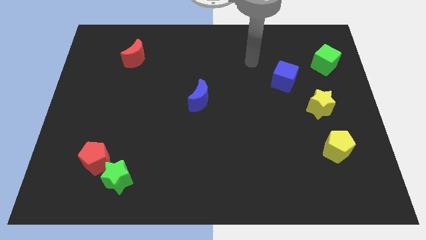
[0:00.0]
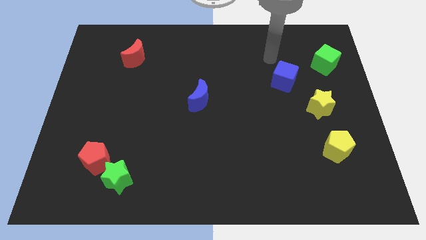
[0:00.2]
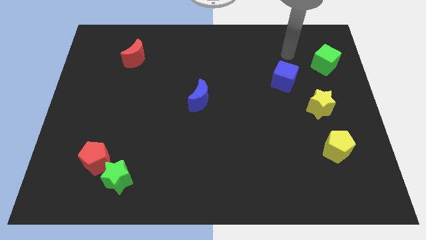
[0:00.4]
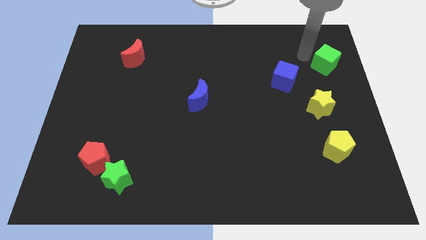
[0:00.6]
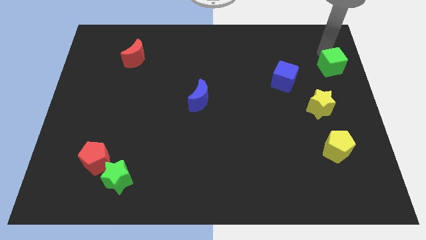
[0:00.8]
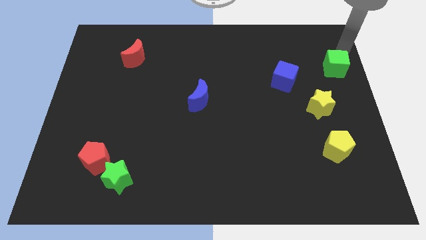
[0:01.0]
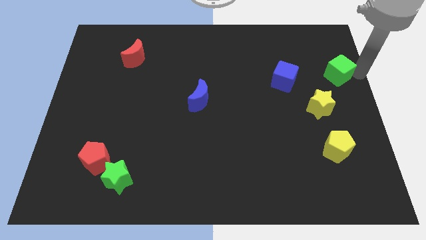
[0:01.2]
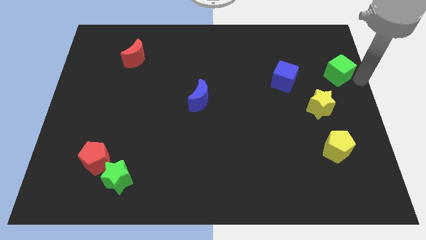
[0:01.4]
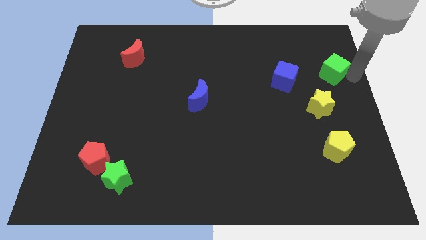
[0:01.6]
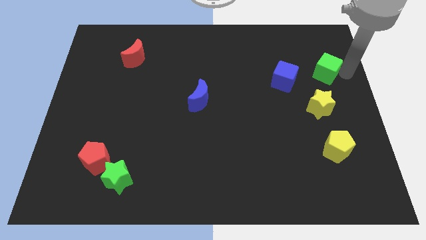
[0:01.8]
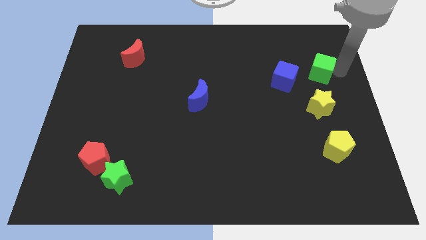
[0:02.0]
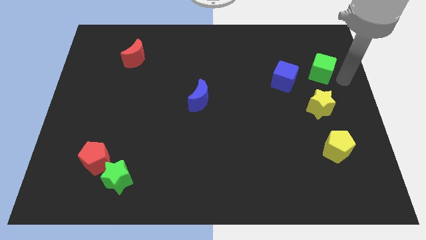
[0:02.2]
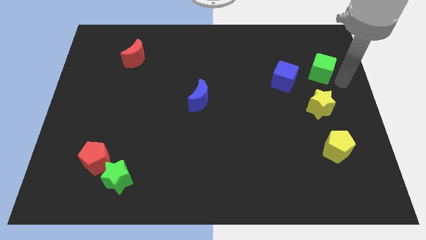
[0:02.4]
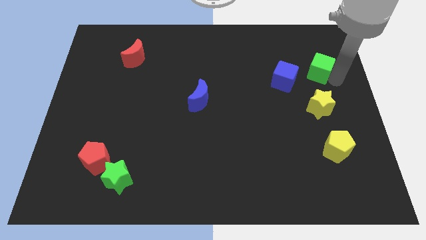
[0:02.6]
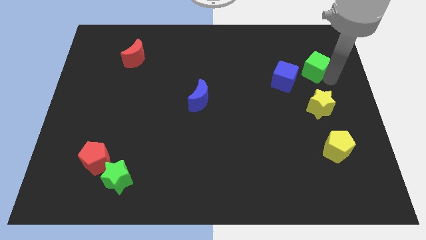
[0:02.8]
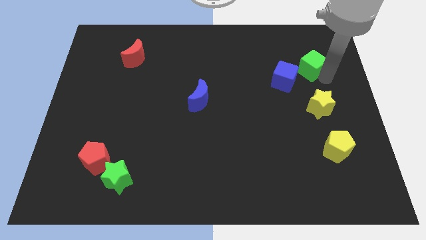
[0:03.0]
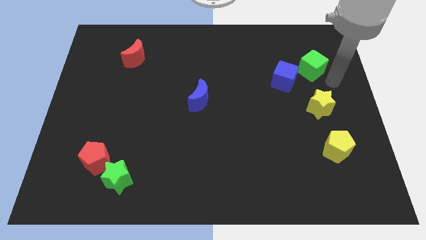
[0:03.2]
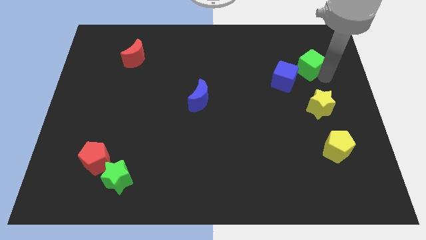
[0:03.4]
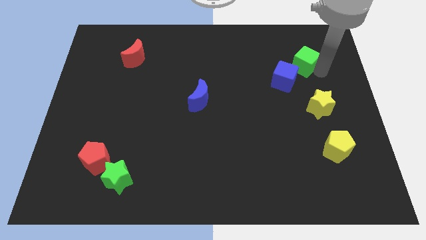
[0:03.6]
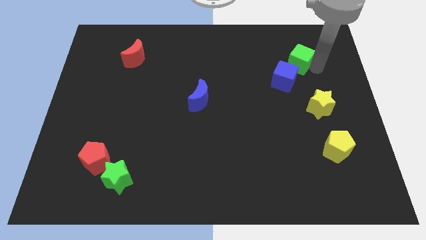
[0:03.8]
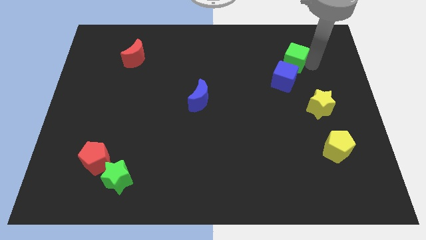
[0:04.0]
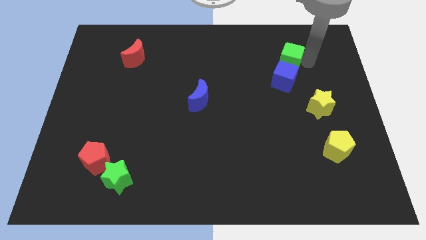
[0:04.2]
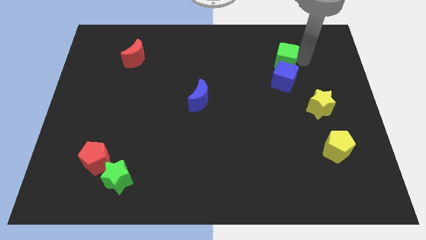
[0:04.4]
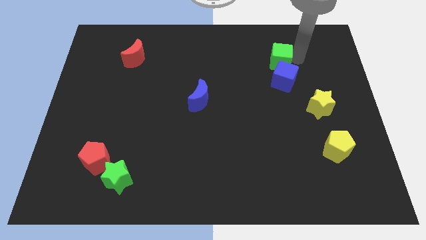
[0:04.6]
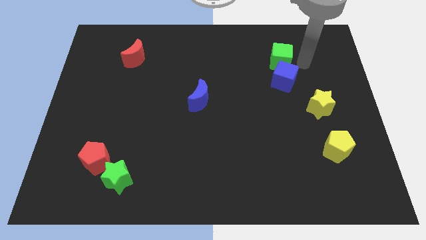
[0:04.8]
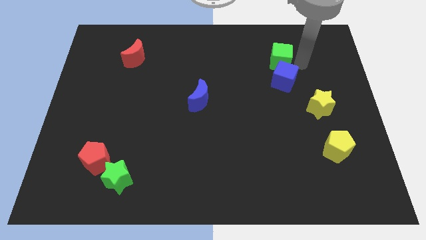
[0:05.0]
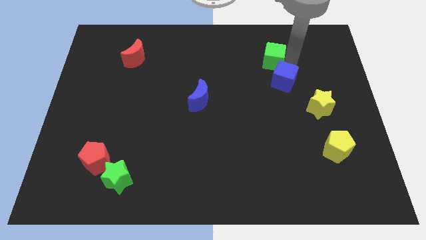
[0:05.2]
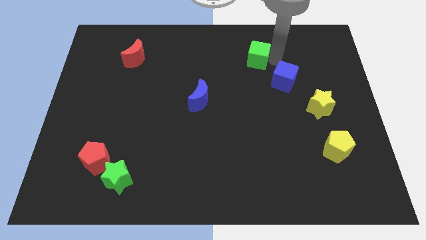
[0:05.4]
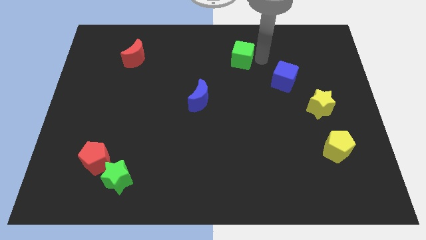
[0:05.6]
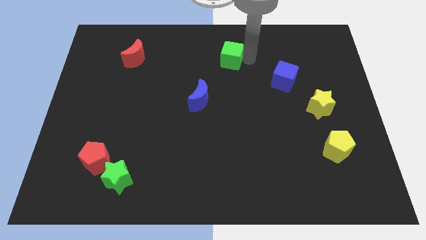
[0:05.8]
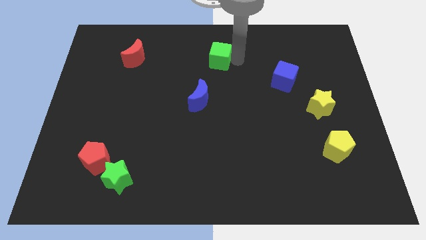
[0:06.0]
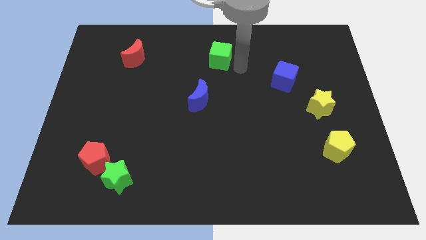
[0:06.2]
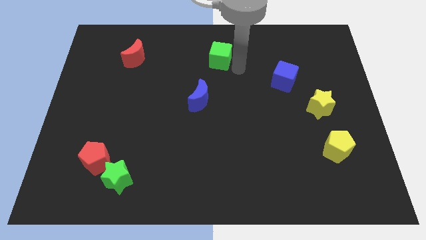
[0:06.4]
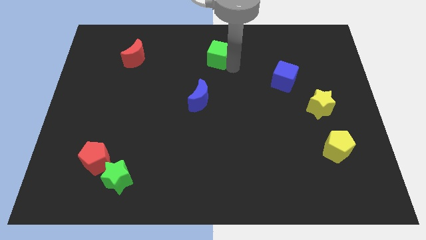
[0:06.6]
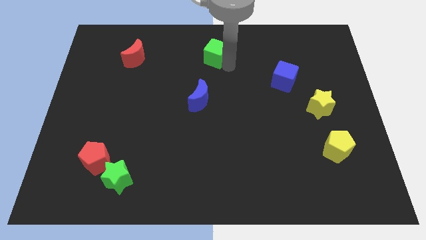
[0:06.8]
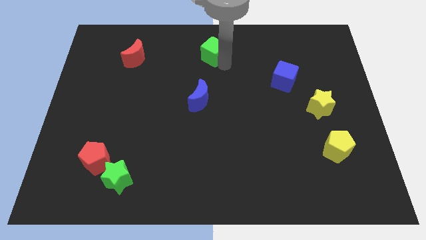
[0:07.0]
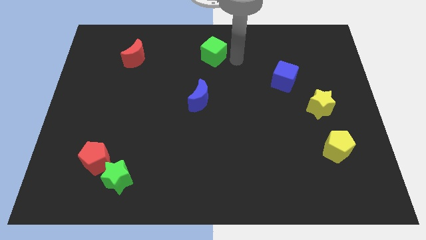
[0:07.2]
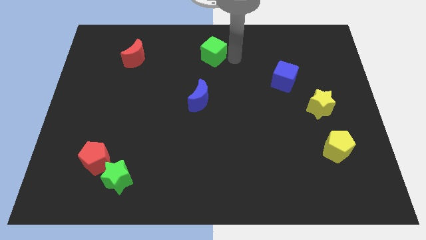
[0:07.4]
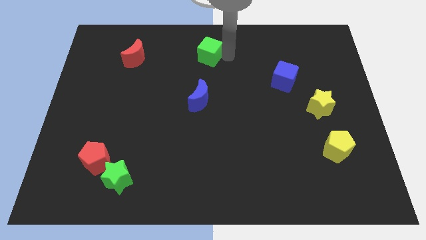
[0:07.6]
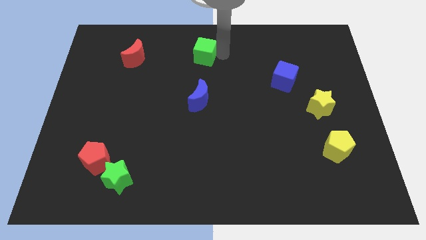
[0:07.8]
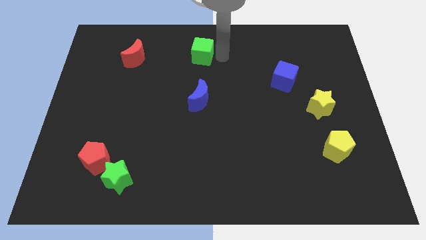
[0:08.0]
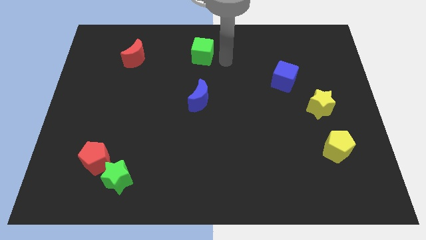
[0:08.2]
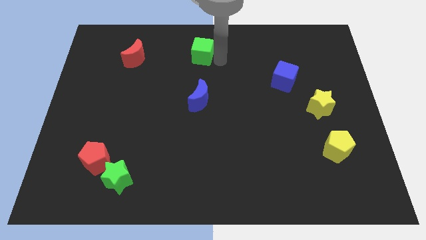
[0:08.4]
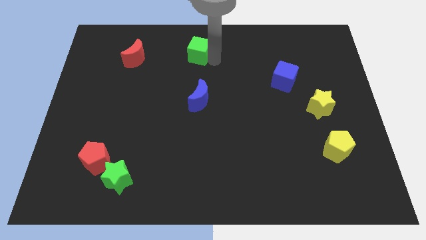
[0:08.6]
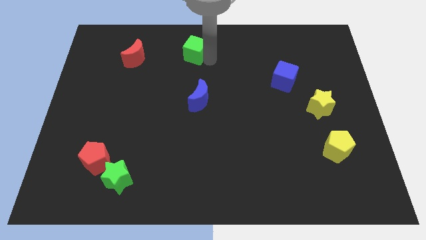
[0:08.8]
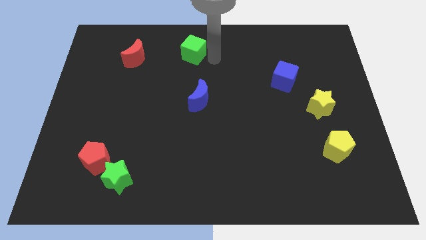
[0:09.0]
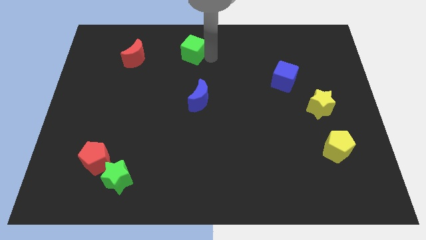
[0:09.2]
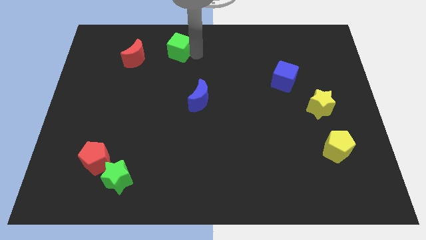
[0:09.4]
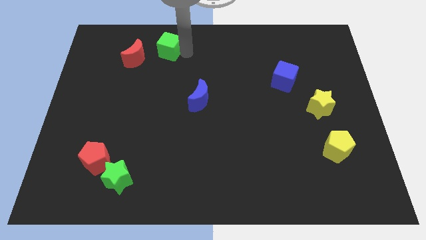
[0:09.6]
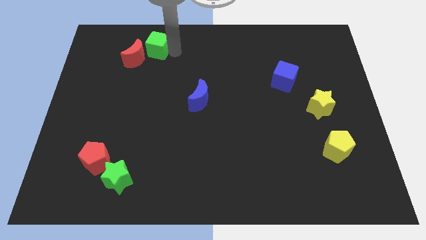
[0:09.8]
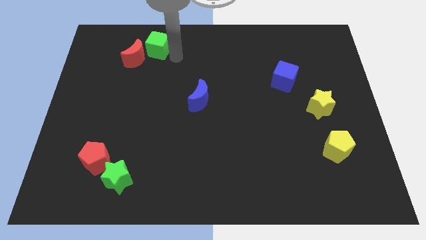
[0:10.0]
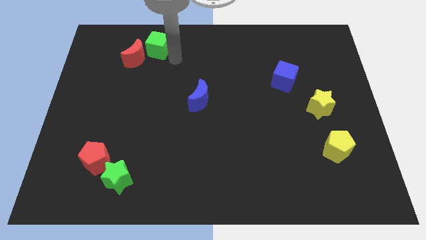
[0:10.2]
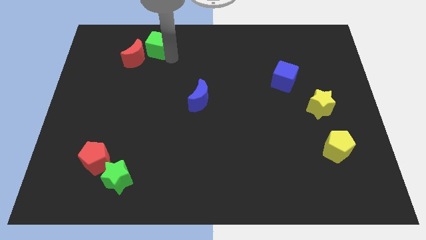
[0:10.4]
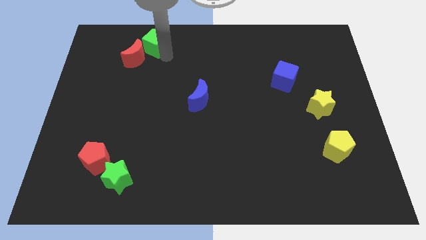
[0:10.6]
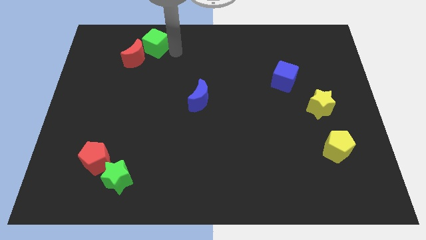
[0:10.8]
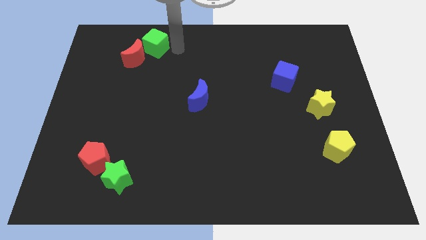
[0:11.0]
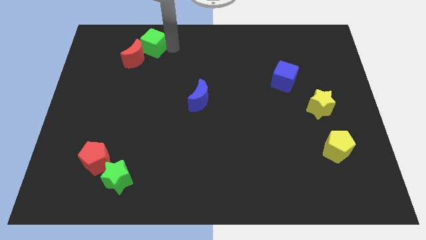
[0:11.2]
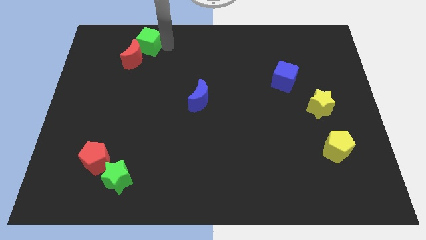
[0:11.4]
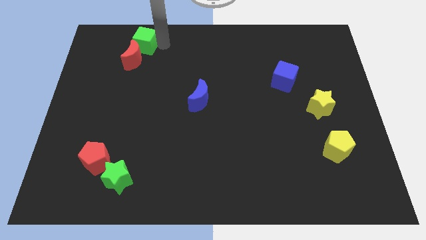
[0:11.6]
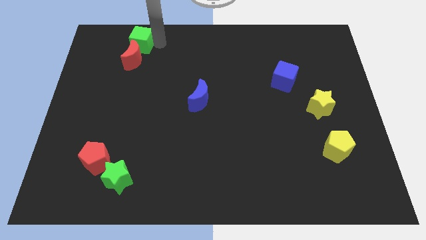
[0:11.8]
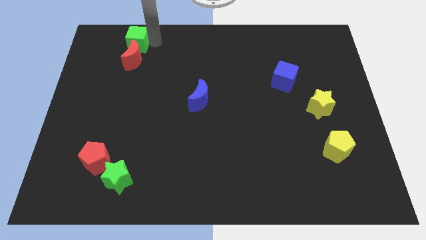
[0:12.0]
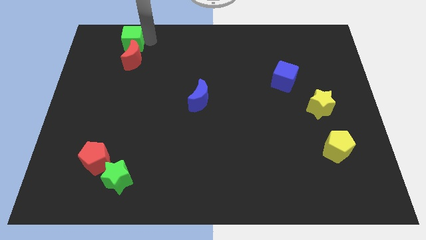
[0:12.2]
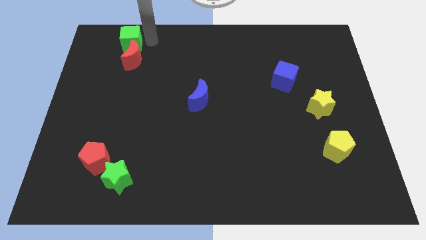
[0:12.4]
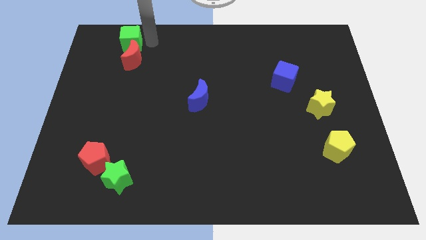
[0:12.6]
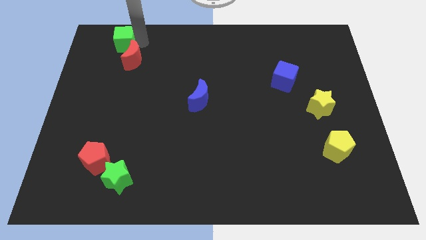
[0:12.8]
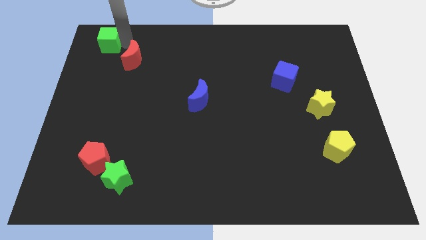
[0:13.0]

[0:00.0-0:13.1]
push the green cube to the top left
